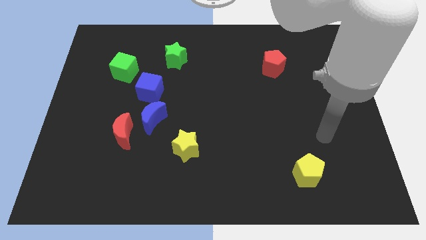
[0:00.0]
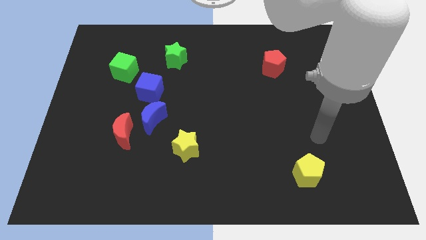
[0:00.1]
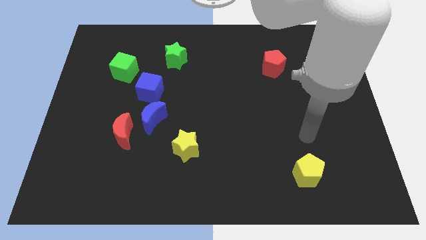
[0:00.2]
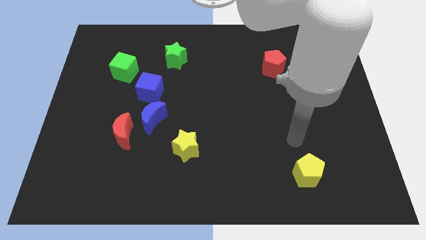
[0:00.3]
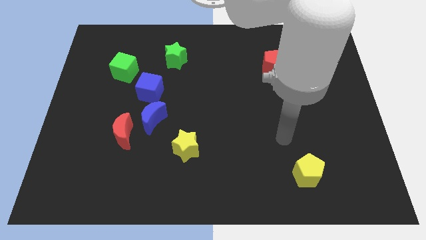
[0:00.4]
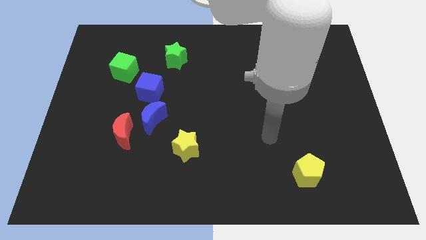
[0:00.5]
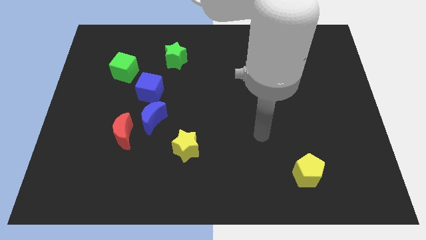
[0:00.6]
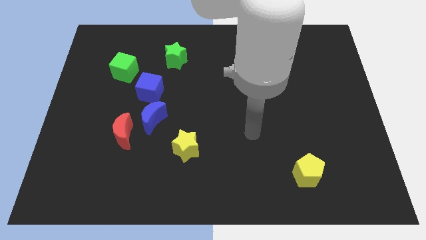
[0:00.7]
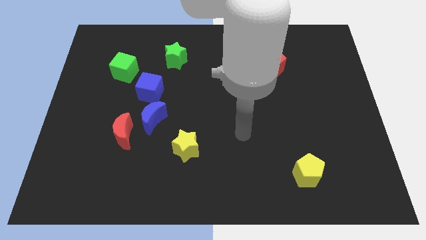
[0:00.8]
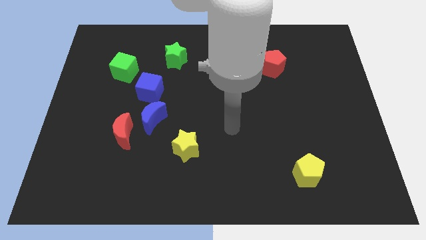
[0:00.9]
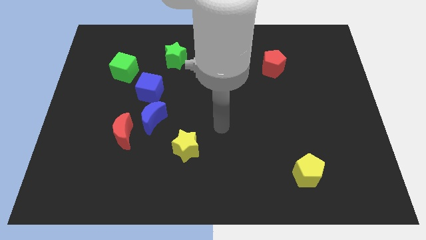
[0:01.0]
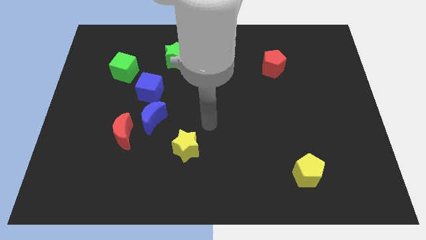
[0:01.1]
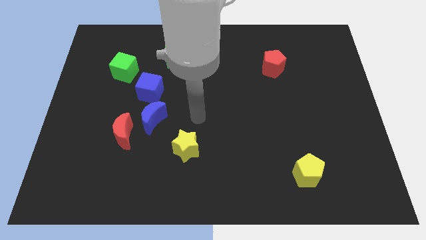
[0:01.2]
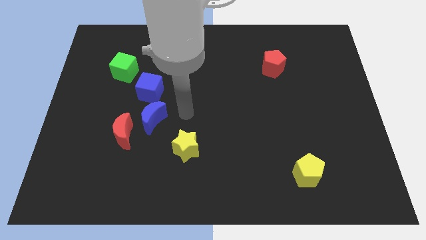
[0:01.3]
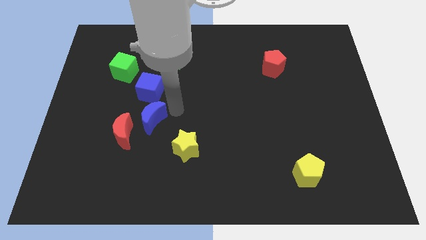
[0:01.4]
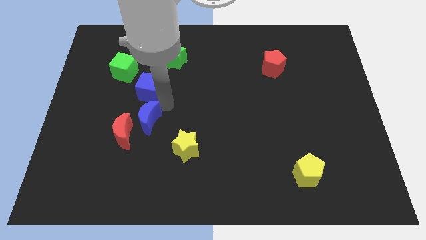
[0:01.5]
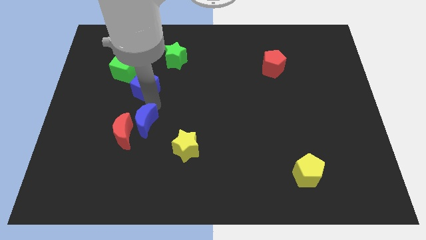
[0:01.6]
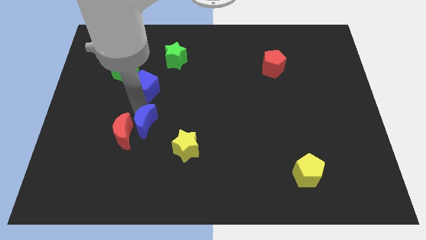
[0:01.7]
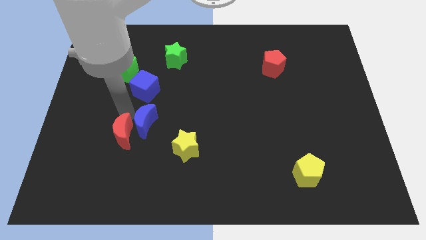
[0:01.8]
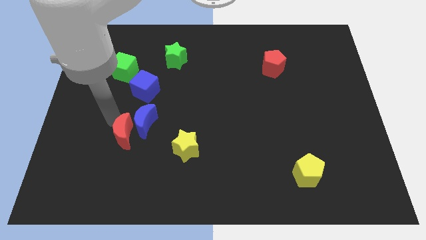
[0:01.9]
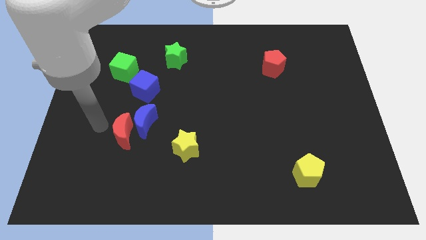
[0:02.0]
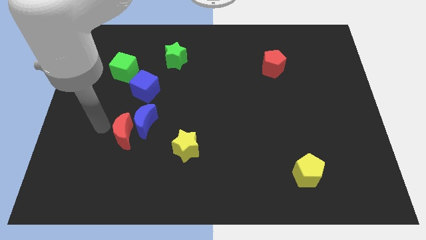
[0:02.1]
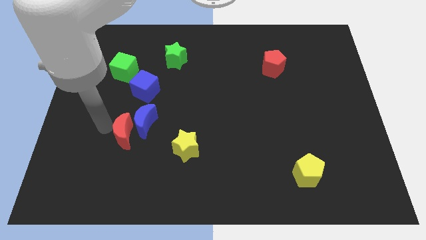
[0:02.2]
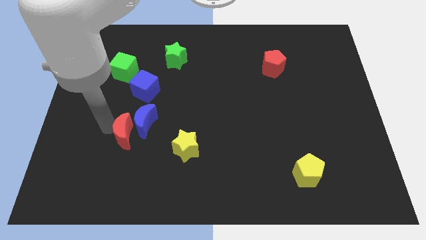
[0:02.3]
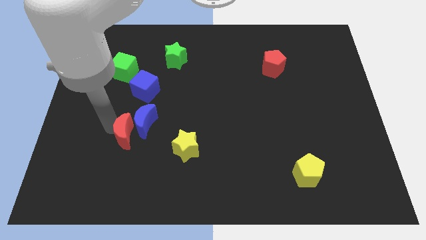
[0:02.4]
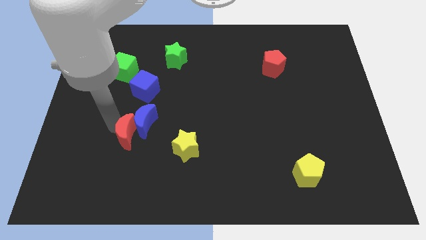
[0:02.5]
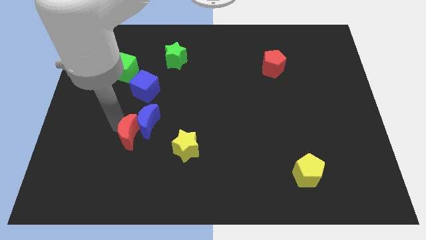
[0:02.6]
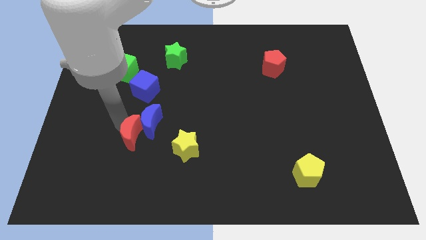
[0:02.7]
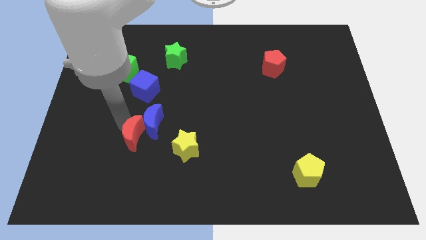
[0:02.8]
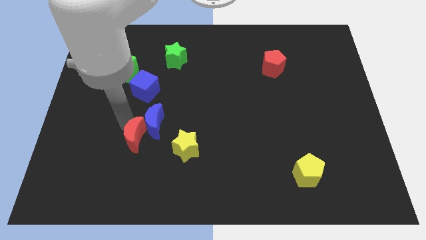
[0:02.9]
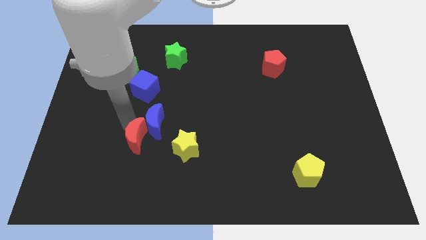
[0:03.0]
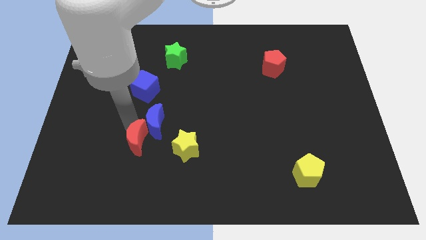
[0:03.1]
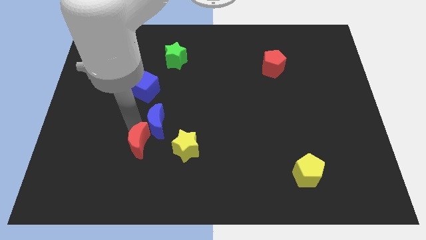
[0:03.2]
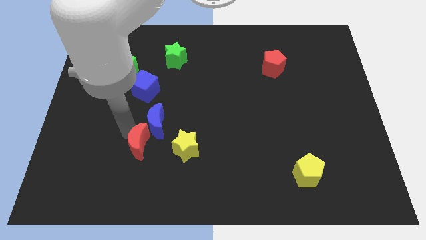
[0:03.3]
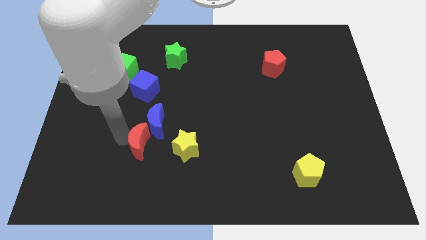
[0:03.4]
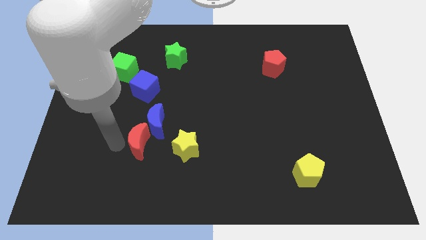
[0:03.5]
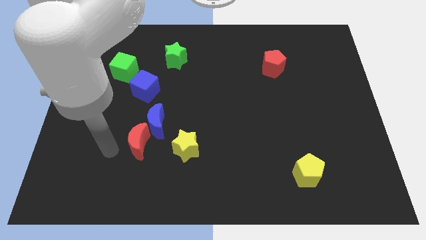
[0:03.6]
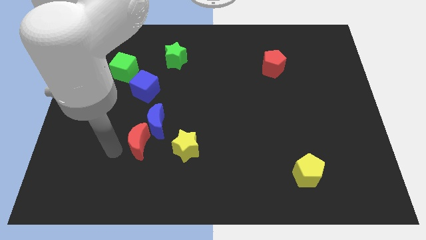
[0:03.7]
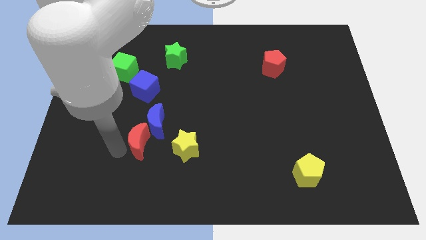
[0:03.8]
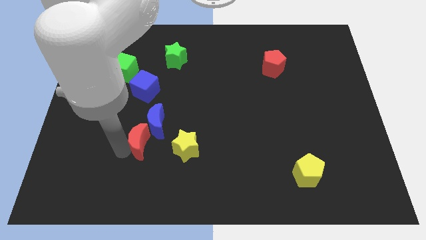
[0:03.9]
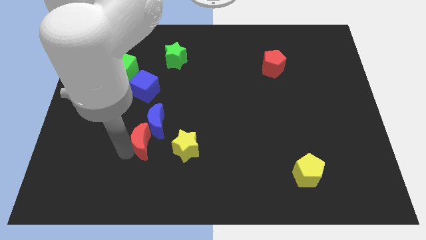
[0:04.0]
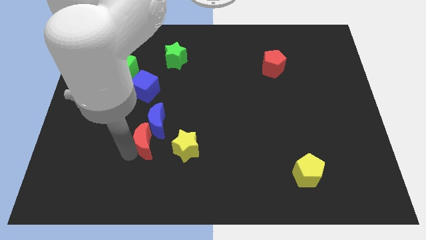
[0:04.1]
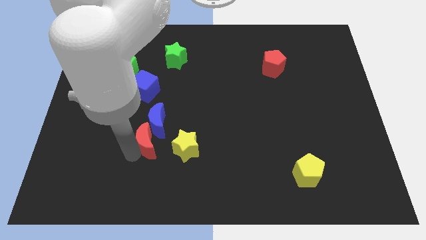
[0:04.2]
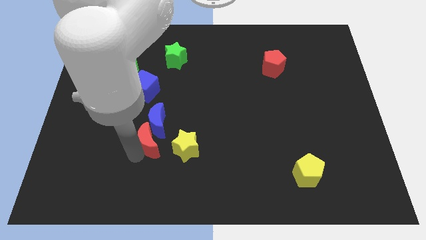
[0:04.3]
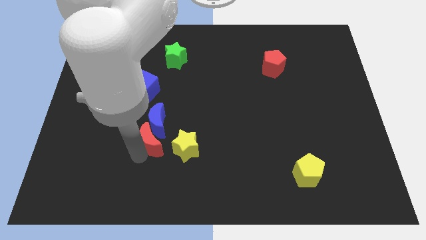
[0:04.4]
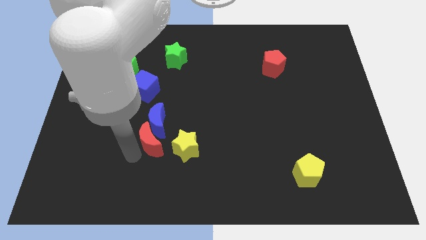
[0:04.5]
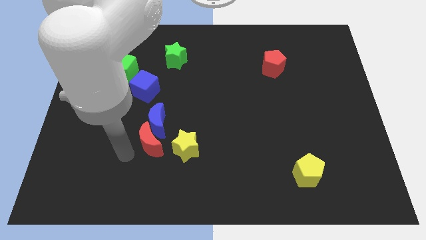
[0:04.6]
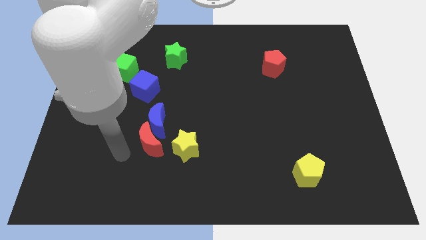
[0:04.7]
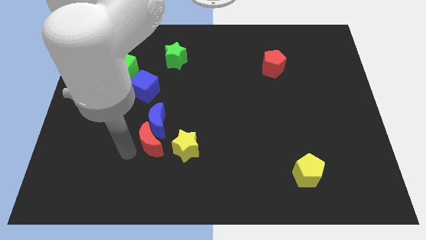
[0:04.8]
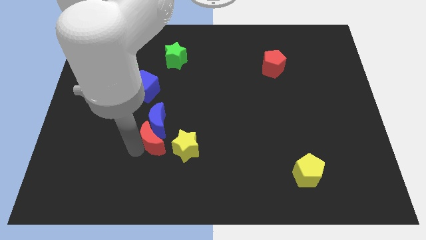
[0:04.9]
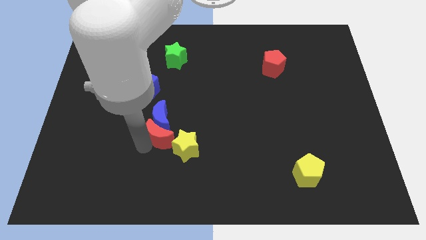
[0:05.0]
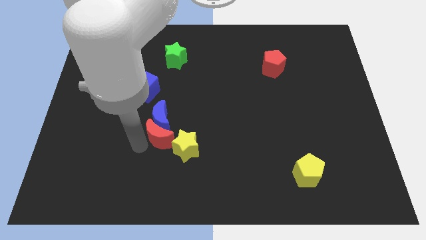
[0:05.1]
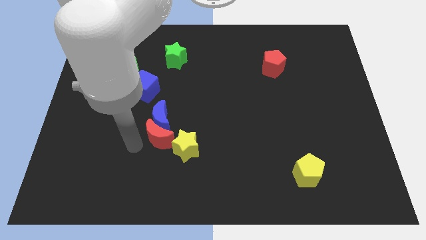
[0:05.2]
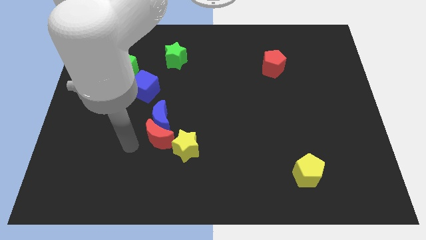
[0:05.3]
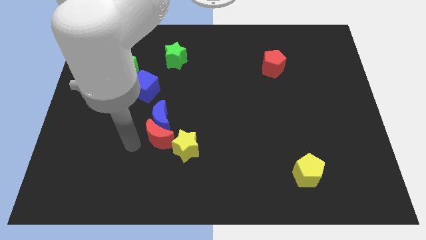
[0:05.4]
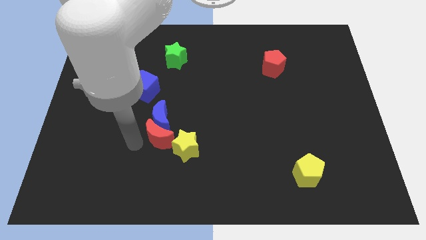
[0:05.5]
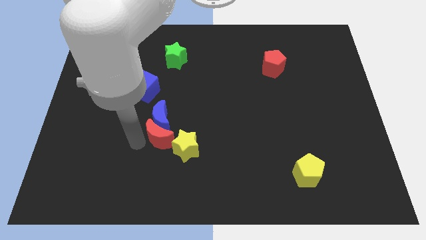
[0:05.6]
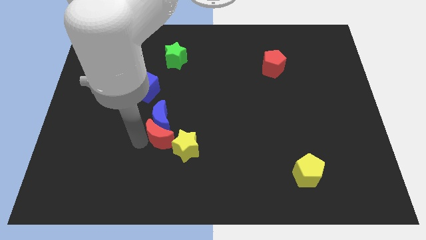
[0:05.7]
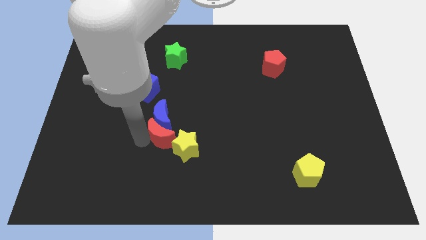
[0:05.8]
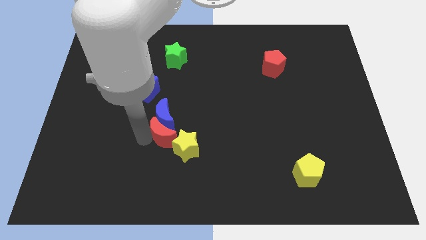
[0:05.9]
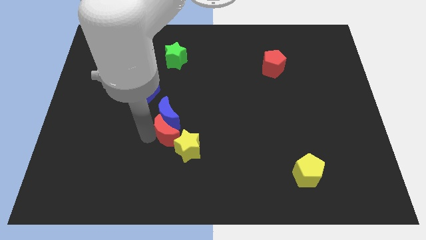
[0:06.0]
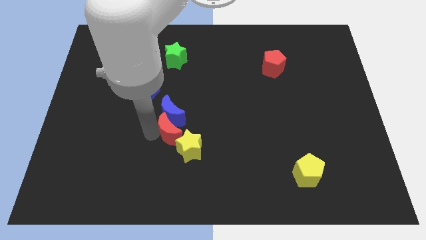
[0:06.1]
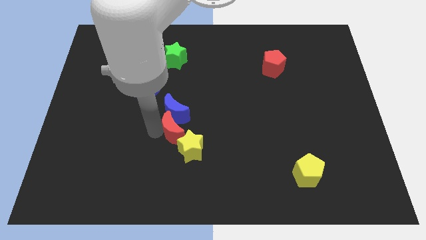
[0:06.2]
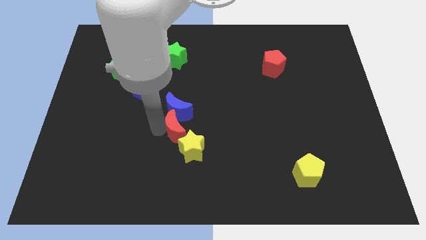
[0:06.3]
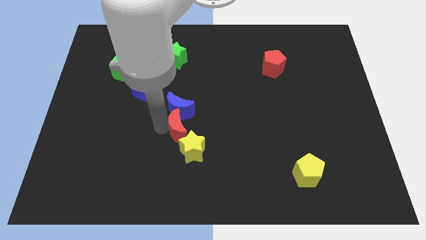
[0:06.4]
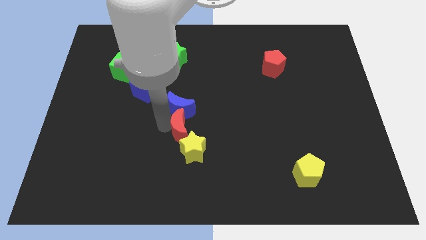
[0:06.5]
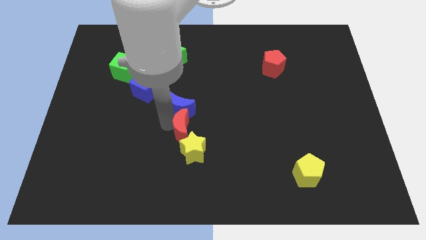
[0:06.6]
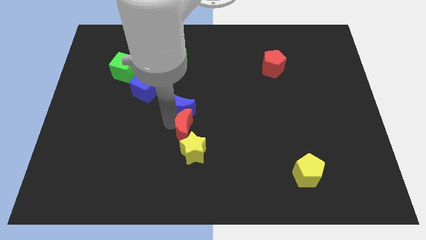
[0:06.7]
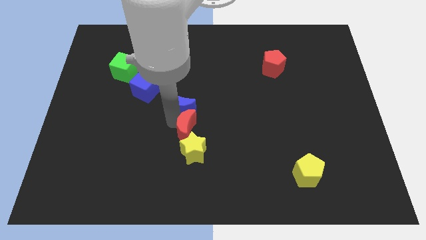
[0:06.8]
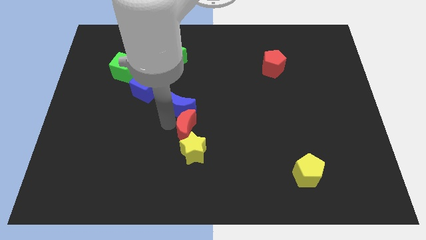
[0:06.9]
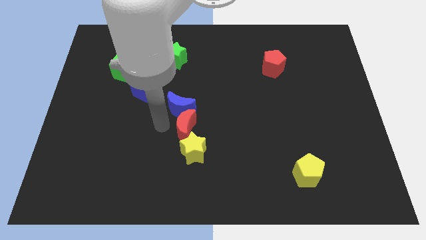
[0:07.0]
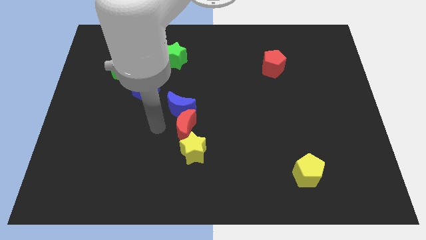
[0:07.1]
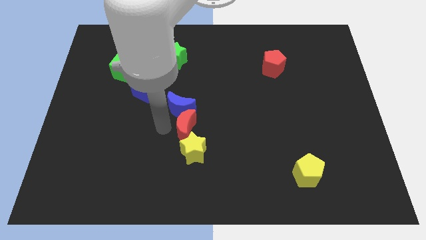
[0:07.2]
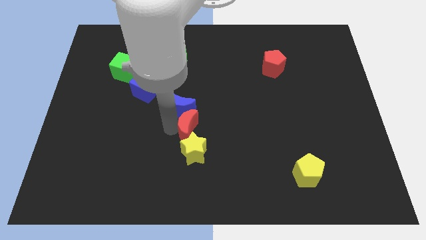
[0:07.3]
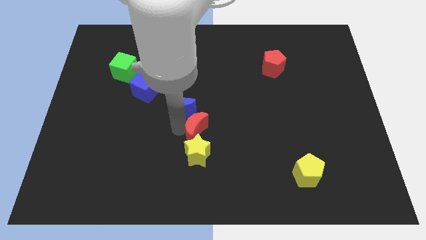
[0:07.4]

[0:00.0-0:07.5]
slide the red moon to the top right side of the yellow star

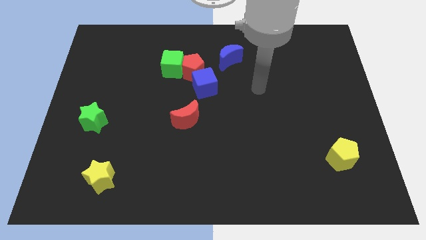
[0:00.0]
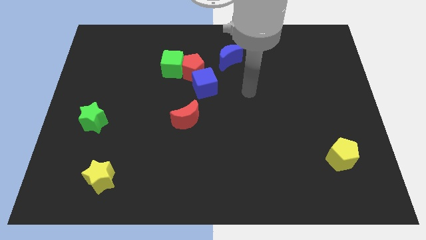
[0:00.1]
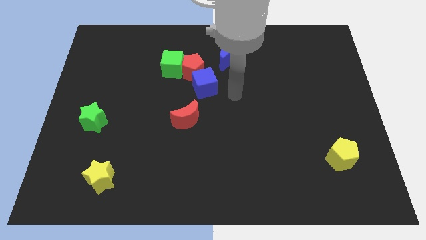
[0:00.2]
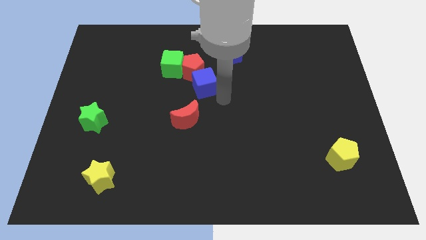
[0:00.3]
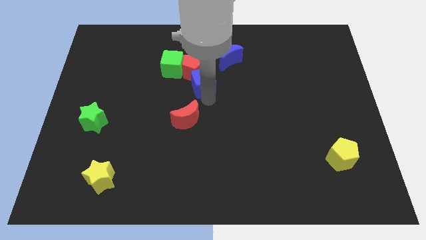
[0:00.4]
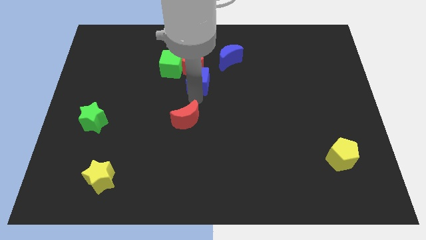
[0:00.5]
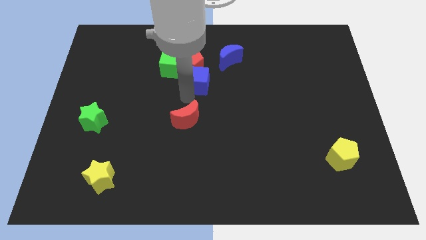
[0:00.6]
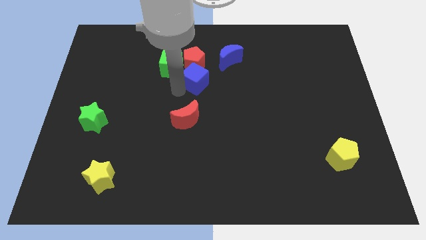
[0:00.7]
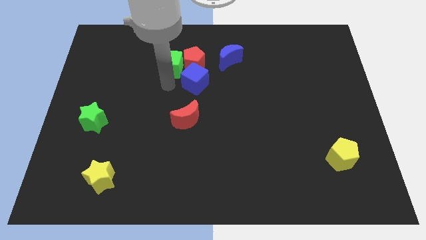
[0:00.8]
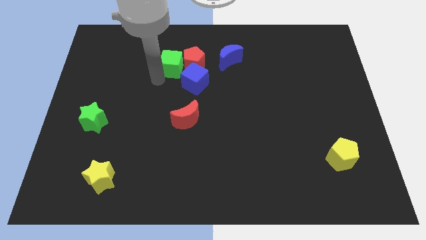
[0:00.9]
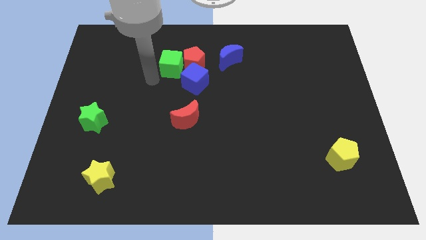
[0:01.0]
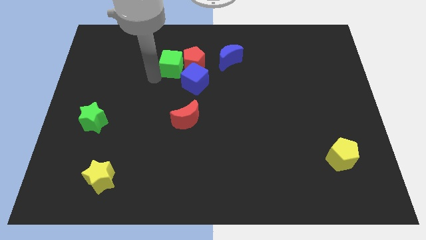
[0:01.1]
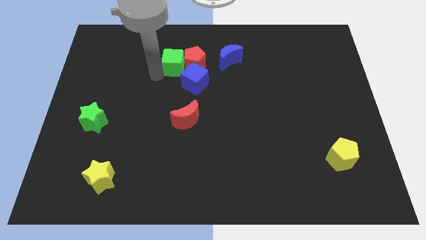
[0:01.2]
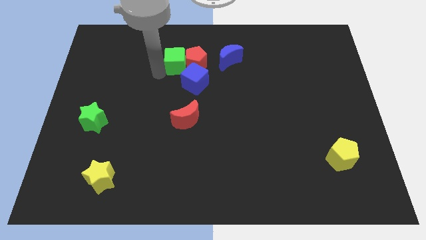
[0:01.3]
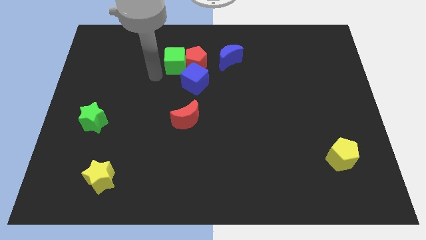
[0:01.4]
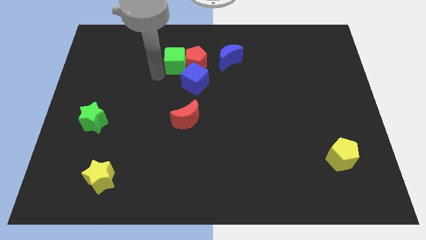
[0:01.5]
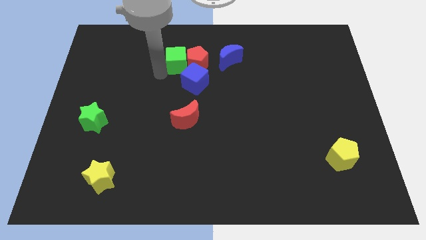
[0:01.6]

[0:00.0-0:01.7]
slide the green cube above the blue cube
